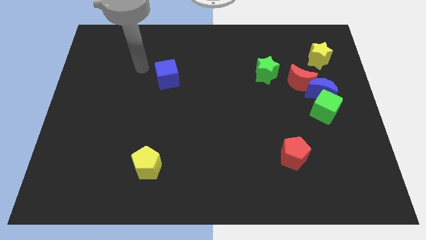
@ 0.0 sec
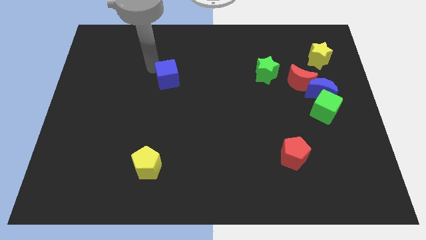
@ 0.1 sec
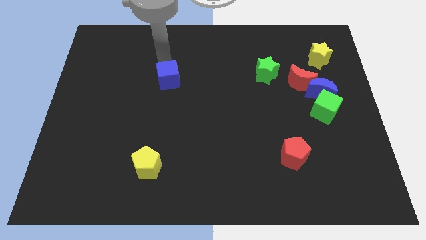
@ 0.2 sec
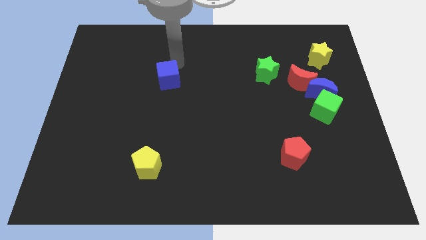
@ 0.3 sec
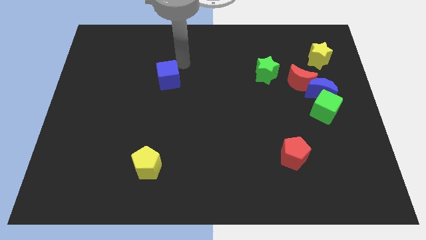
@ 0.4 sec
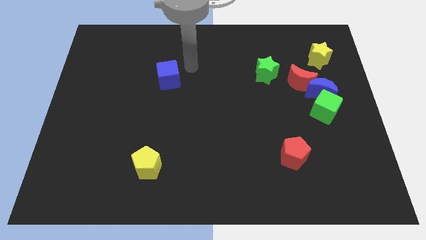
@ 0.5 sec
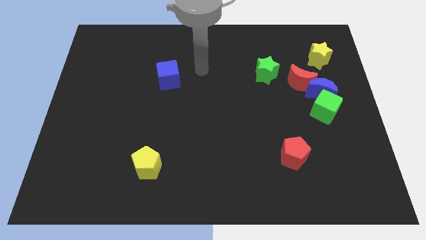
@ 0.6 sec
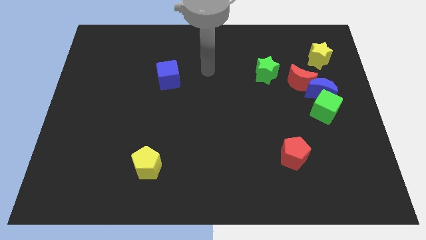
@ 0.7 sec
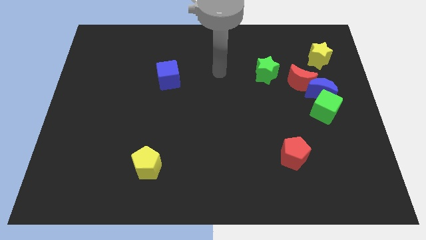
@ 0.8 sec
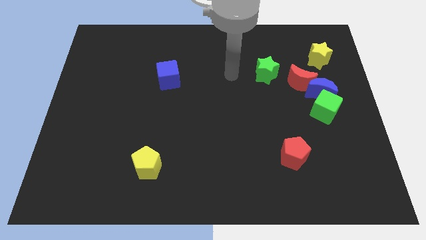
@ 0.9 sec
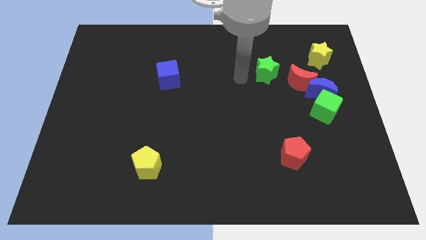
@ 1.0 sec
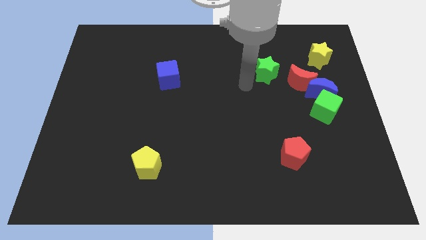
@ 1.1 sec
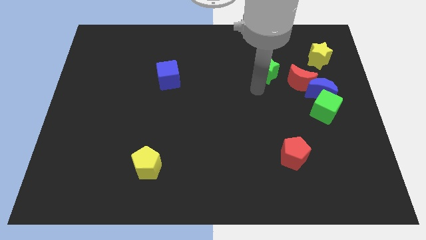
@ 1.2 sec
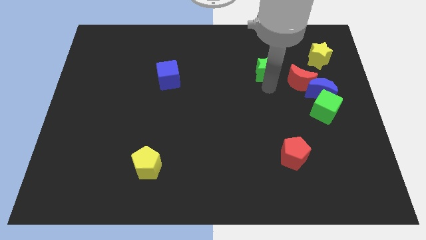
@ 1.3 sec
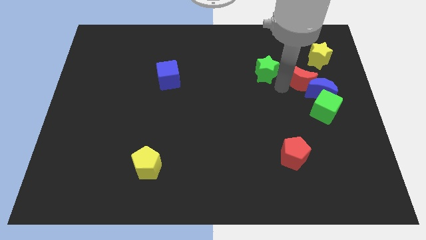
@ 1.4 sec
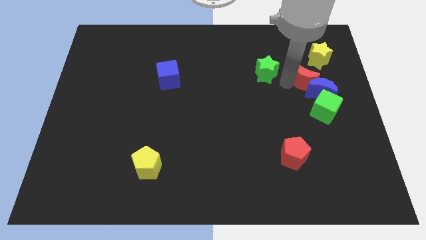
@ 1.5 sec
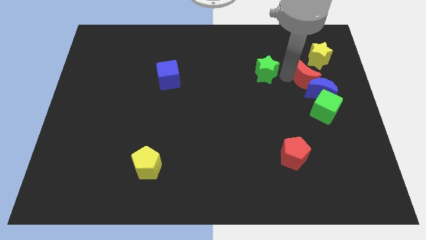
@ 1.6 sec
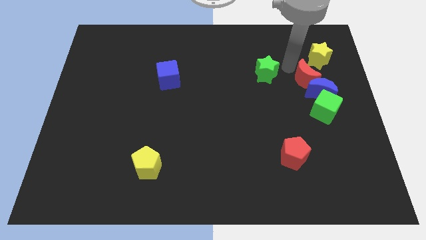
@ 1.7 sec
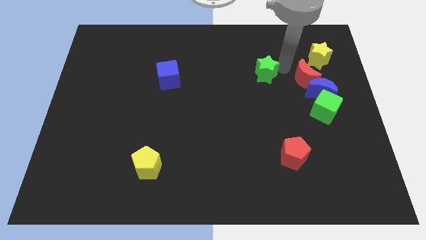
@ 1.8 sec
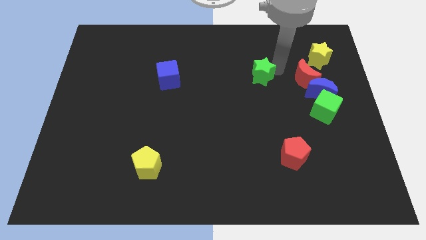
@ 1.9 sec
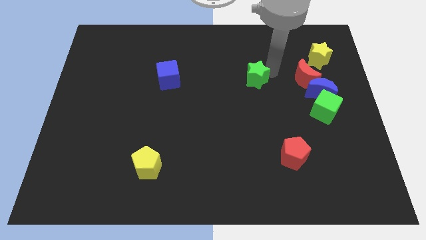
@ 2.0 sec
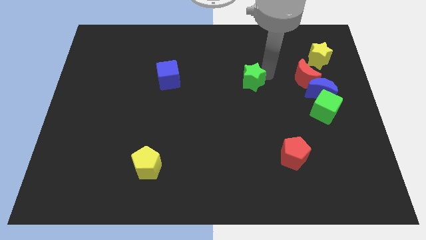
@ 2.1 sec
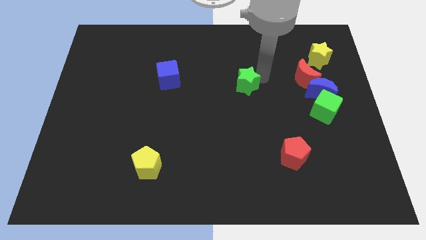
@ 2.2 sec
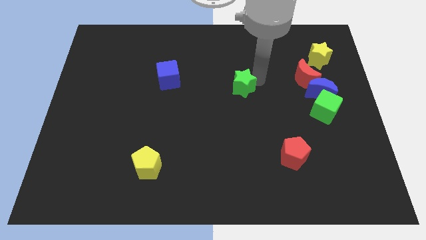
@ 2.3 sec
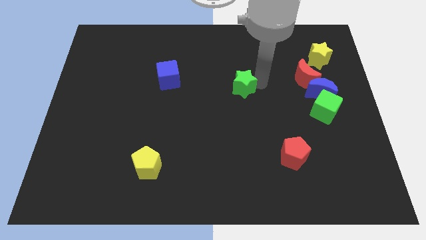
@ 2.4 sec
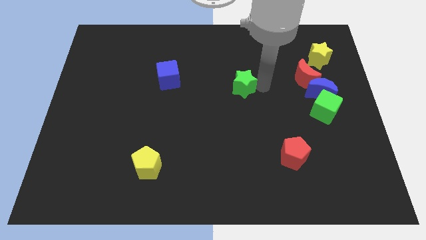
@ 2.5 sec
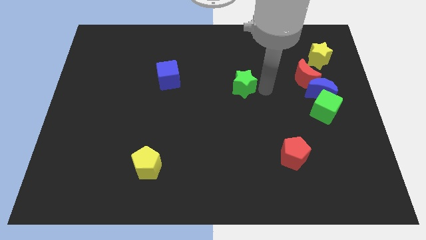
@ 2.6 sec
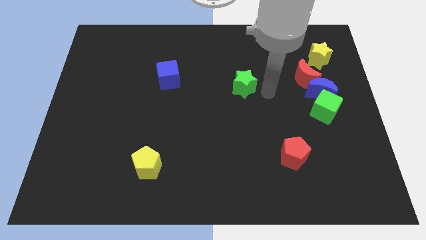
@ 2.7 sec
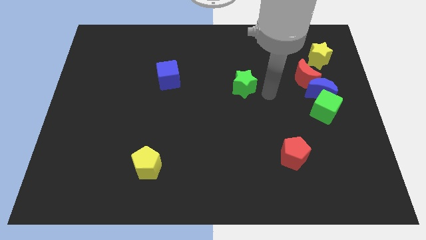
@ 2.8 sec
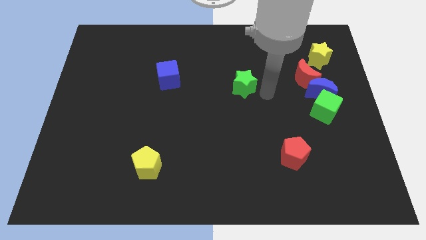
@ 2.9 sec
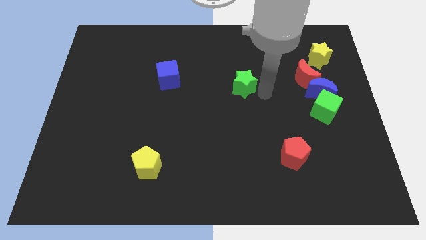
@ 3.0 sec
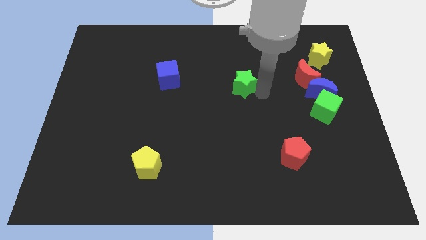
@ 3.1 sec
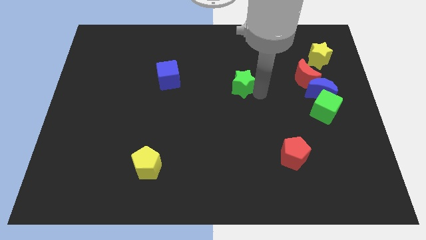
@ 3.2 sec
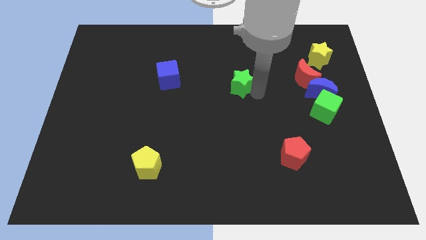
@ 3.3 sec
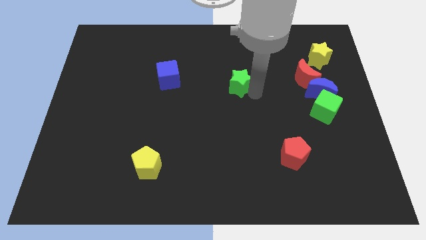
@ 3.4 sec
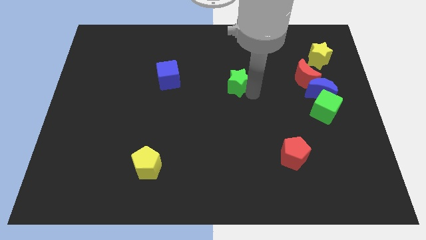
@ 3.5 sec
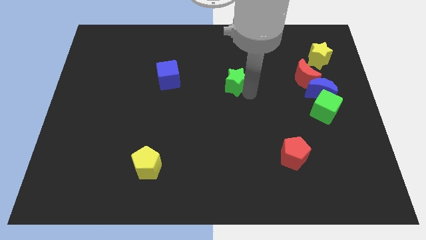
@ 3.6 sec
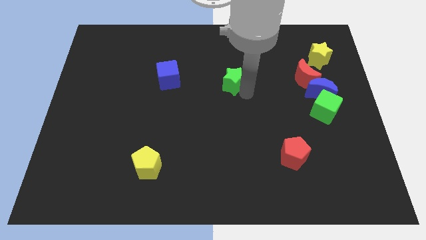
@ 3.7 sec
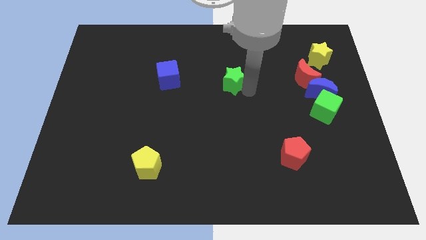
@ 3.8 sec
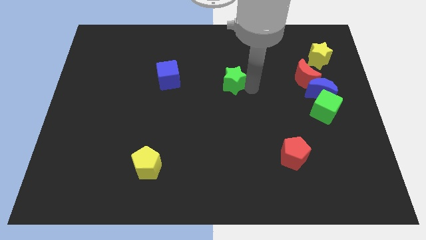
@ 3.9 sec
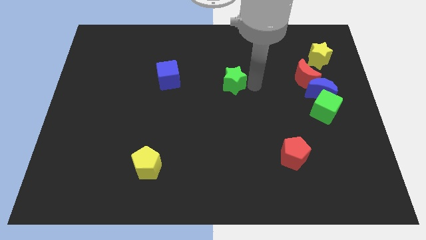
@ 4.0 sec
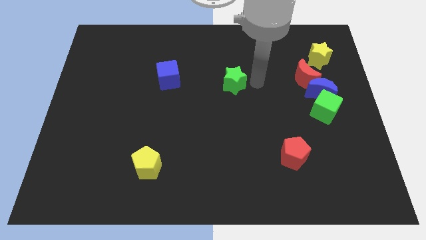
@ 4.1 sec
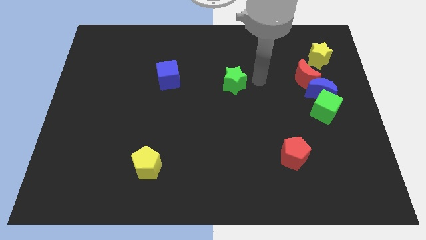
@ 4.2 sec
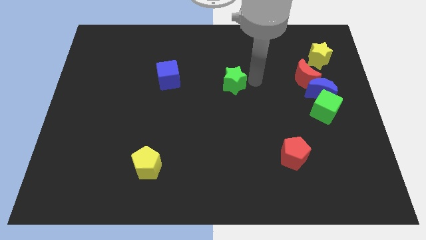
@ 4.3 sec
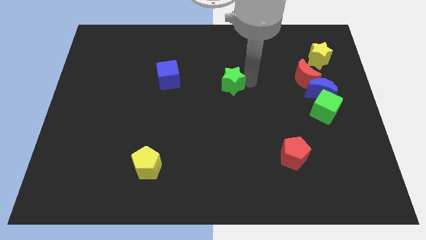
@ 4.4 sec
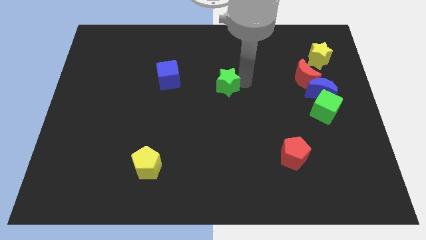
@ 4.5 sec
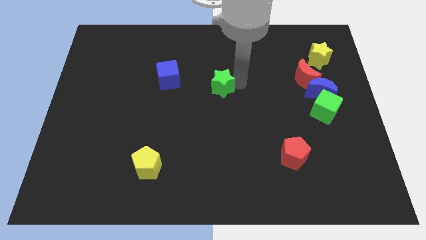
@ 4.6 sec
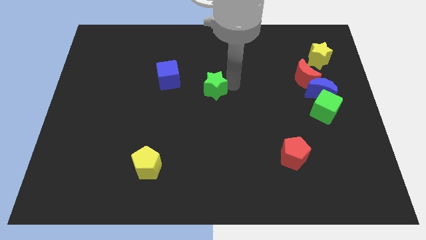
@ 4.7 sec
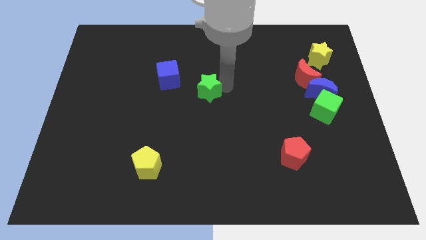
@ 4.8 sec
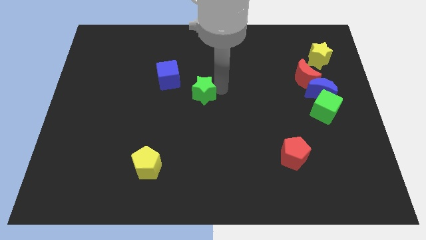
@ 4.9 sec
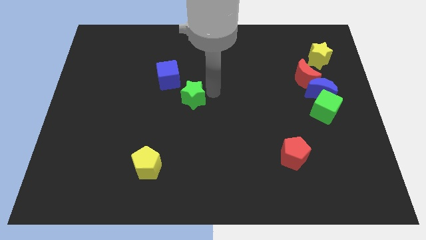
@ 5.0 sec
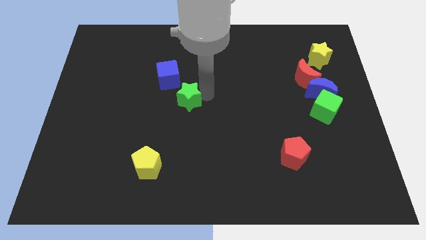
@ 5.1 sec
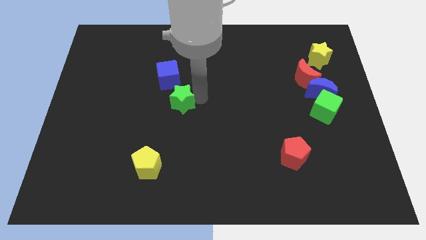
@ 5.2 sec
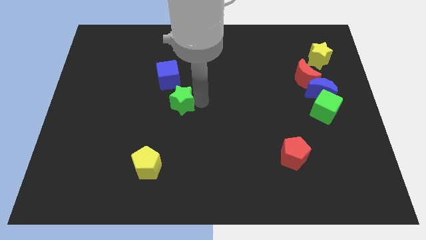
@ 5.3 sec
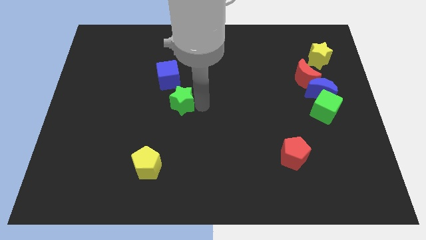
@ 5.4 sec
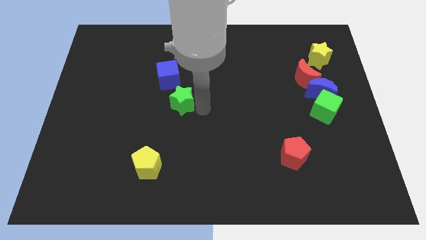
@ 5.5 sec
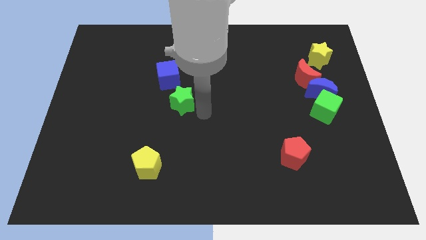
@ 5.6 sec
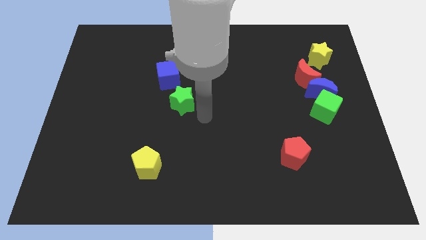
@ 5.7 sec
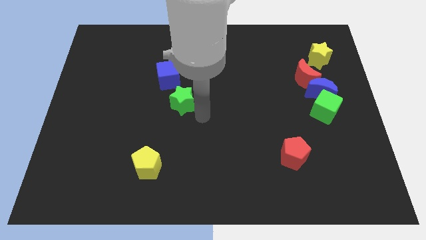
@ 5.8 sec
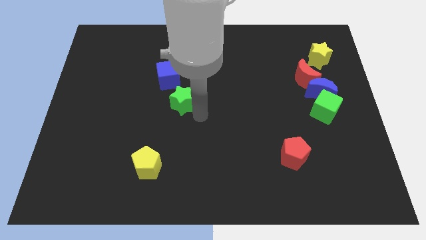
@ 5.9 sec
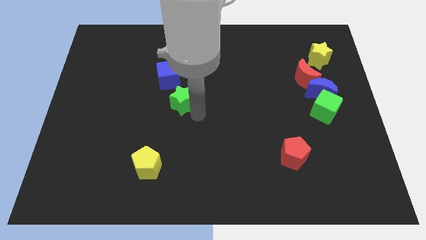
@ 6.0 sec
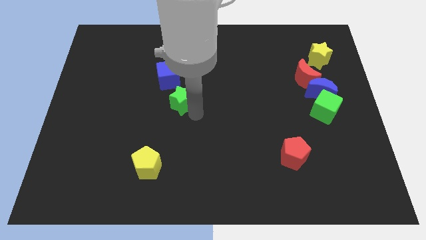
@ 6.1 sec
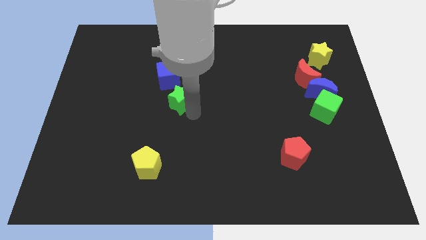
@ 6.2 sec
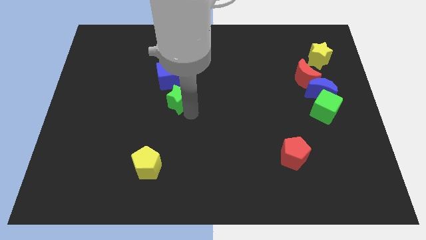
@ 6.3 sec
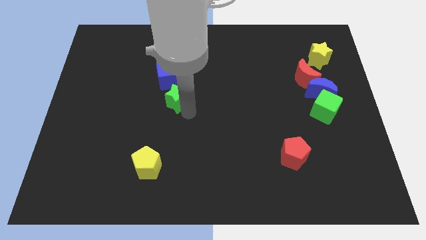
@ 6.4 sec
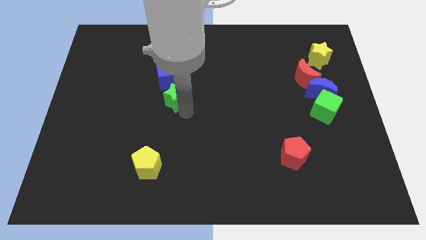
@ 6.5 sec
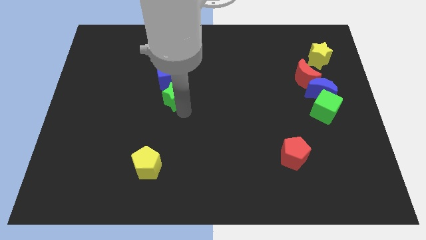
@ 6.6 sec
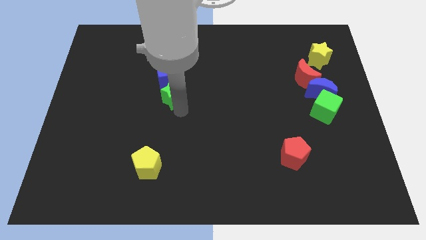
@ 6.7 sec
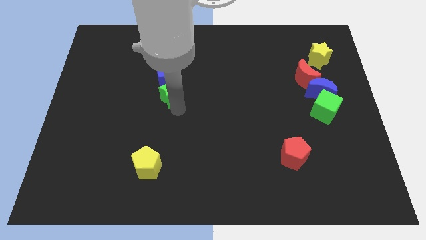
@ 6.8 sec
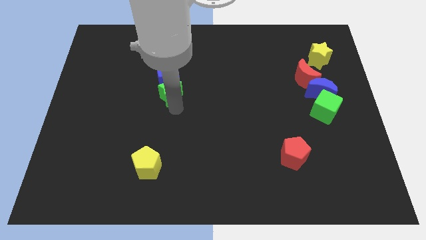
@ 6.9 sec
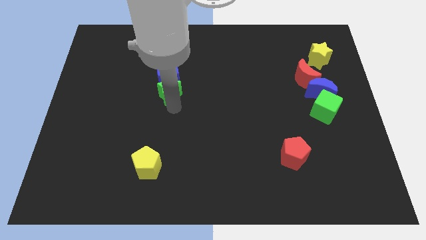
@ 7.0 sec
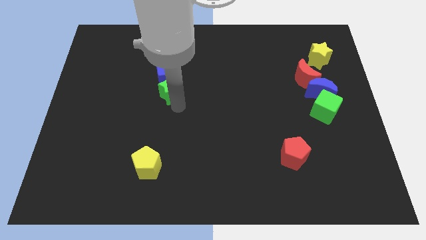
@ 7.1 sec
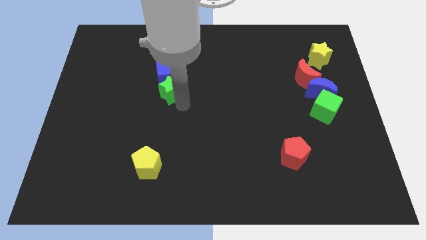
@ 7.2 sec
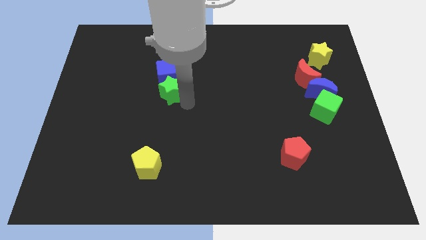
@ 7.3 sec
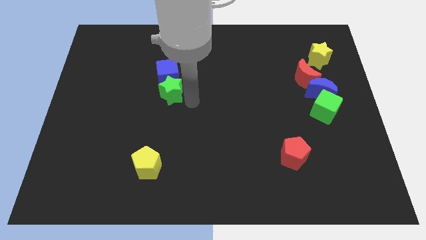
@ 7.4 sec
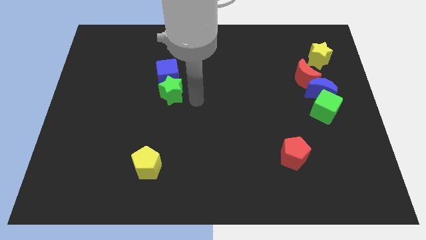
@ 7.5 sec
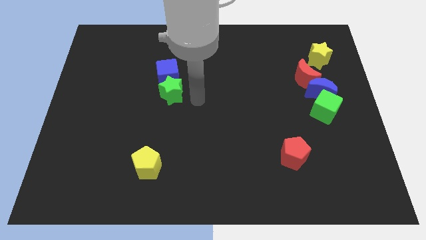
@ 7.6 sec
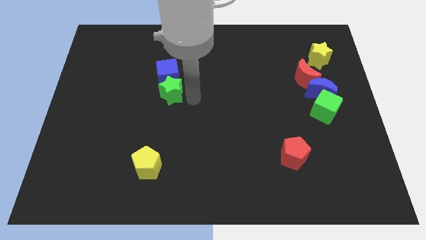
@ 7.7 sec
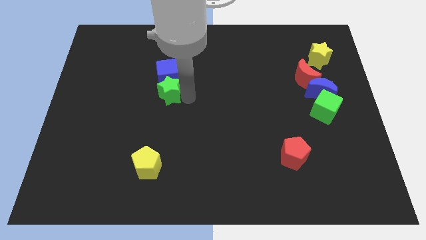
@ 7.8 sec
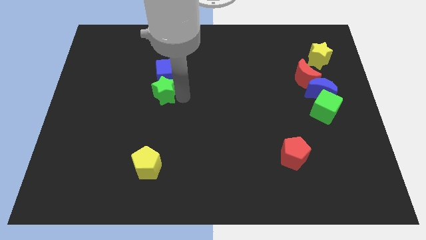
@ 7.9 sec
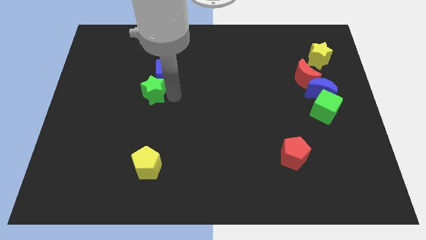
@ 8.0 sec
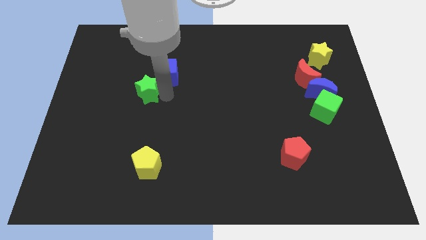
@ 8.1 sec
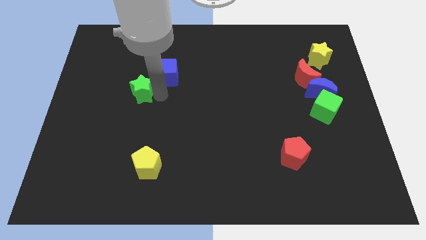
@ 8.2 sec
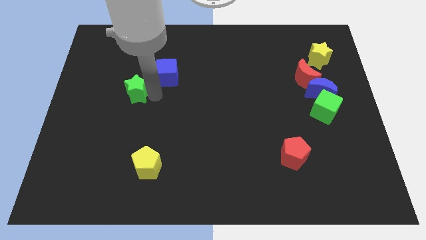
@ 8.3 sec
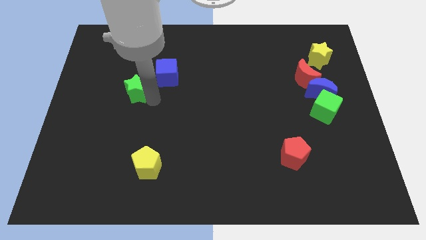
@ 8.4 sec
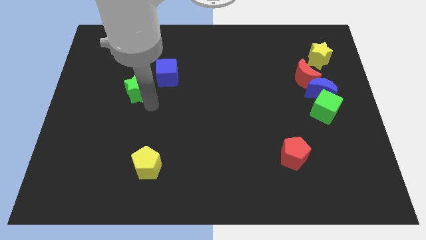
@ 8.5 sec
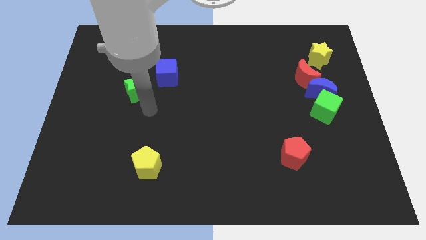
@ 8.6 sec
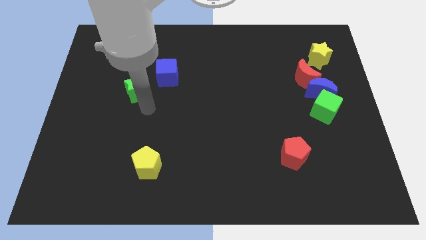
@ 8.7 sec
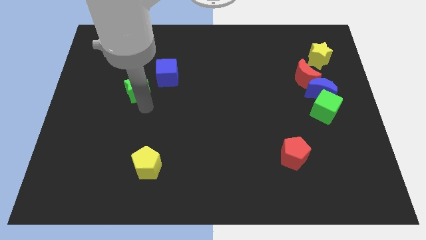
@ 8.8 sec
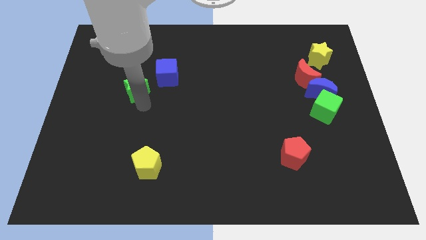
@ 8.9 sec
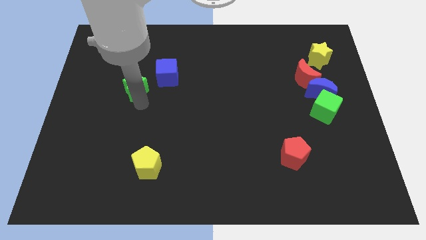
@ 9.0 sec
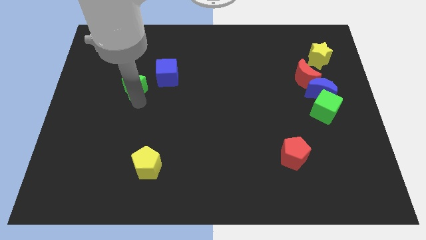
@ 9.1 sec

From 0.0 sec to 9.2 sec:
put the green star to the left side of the blue cube
